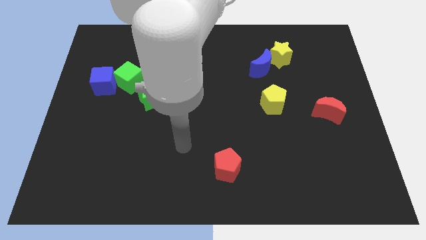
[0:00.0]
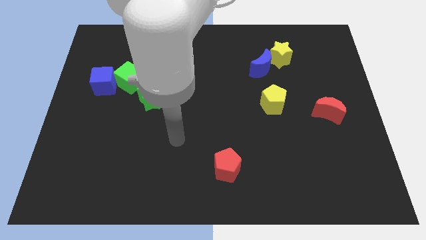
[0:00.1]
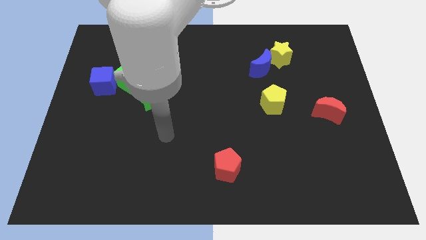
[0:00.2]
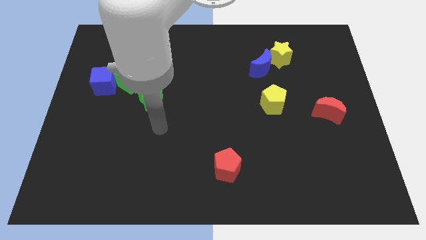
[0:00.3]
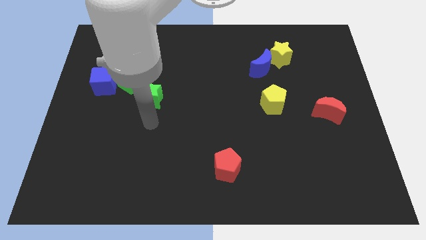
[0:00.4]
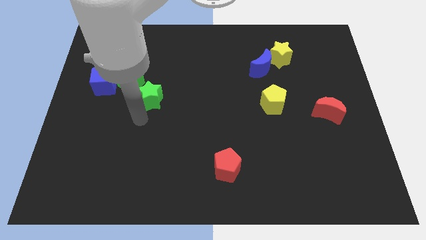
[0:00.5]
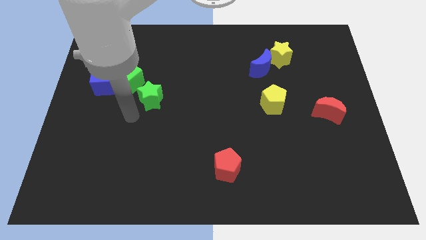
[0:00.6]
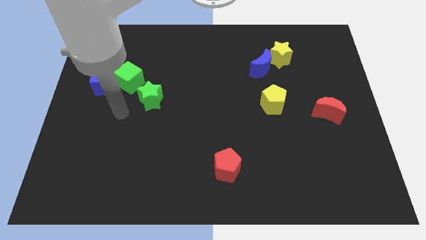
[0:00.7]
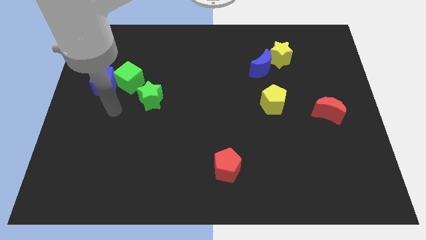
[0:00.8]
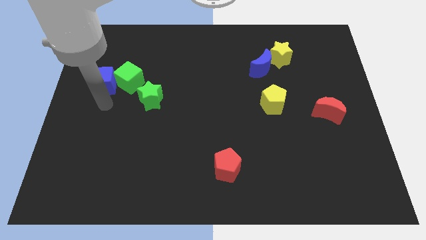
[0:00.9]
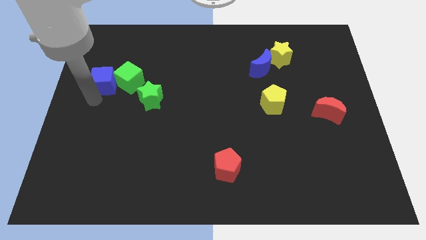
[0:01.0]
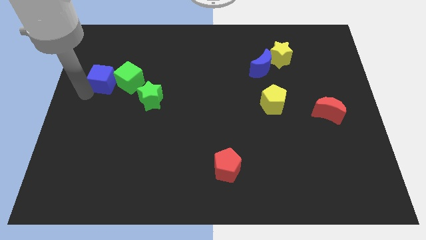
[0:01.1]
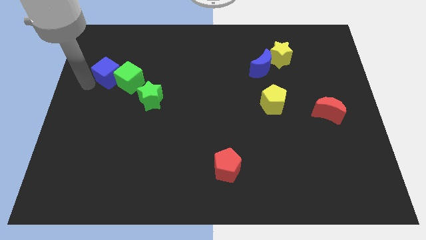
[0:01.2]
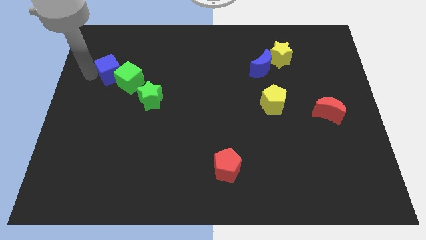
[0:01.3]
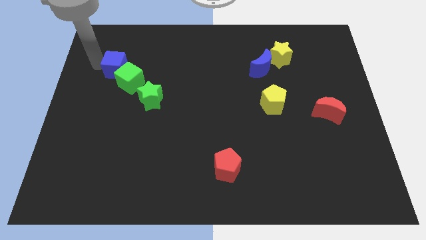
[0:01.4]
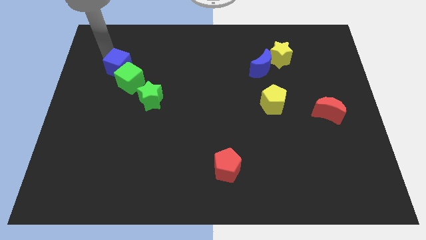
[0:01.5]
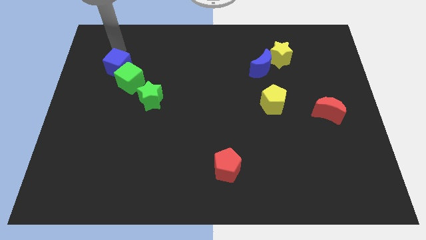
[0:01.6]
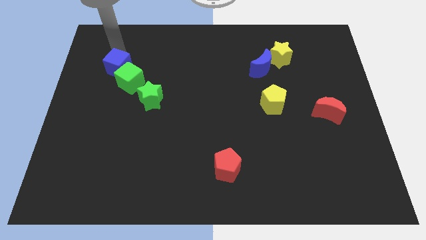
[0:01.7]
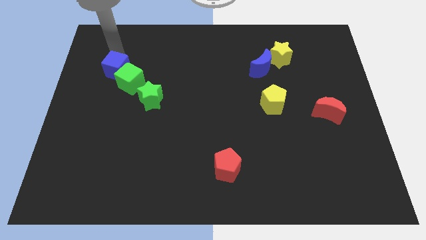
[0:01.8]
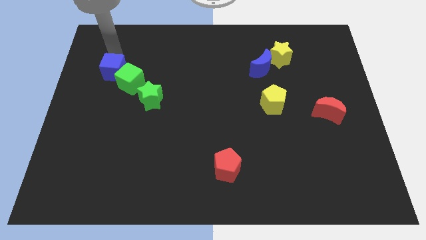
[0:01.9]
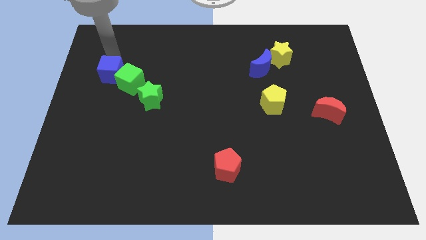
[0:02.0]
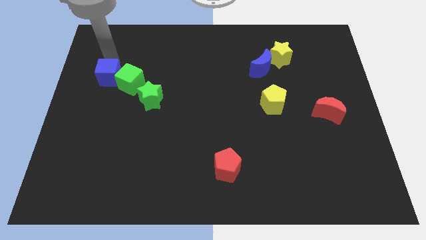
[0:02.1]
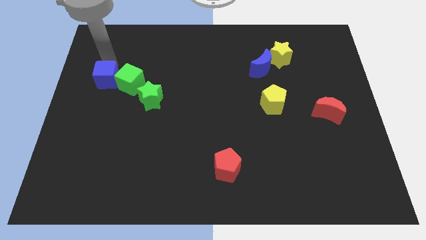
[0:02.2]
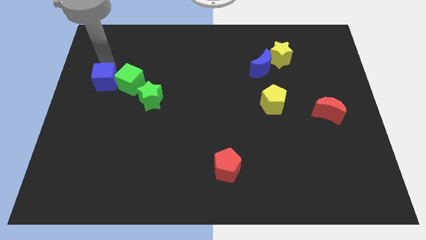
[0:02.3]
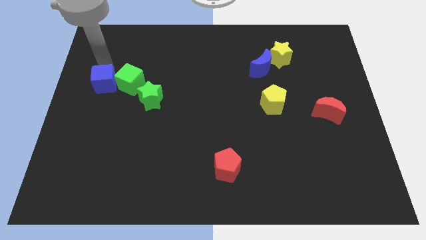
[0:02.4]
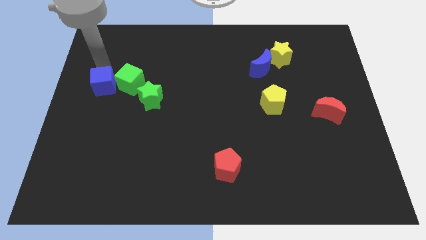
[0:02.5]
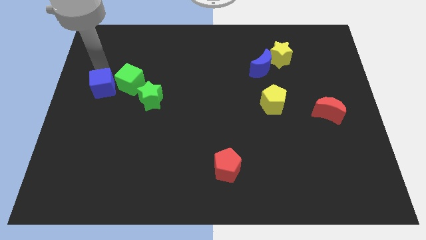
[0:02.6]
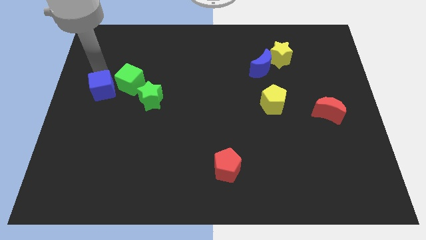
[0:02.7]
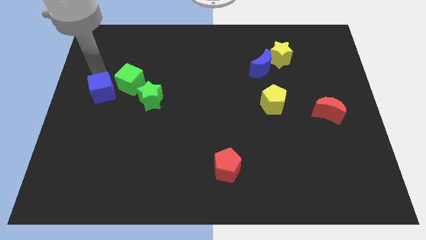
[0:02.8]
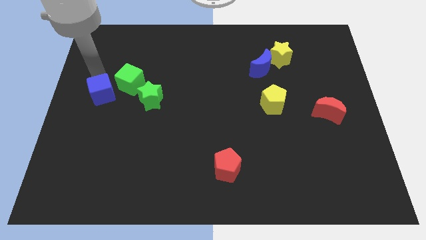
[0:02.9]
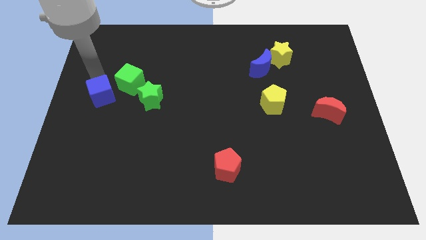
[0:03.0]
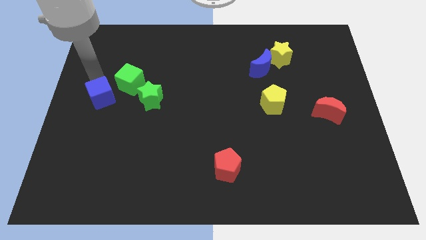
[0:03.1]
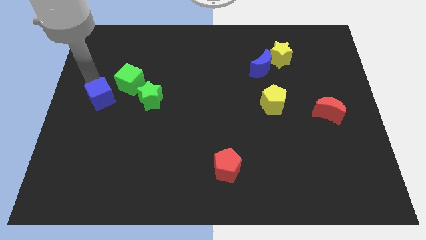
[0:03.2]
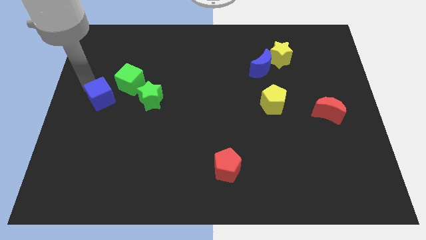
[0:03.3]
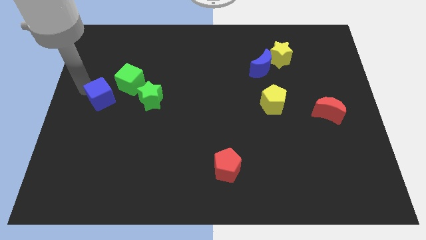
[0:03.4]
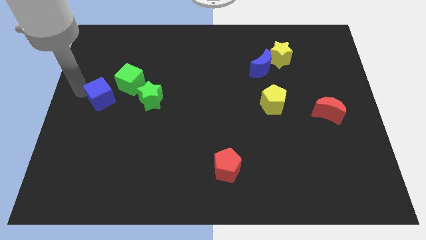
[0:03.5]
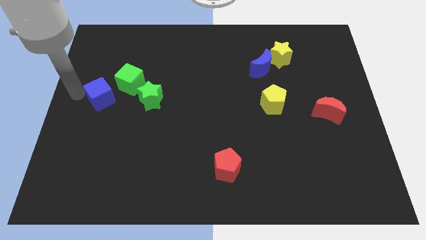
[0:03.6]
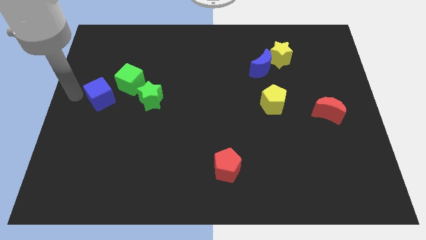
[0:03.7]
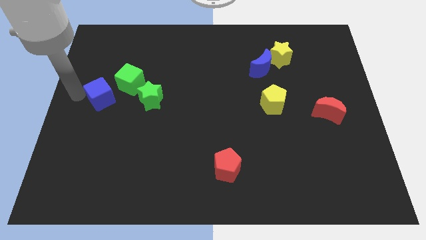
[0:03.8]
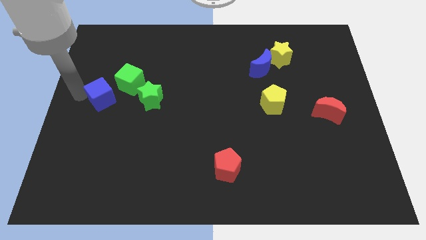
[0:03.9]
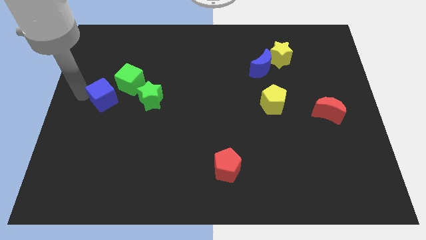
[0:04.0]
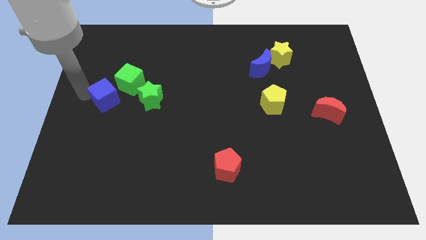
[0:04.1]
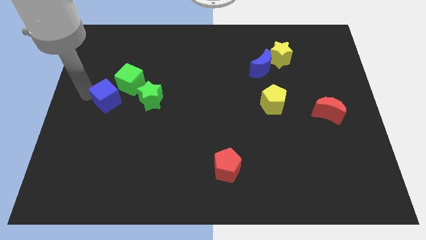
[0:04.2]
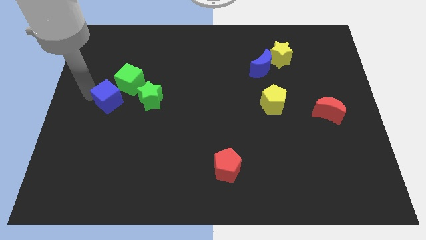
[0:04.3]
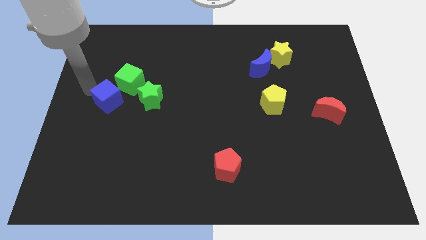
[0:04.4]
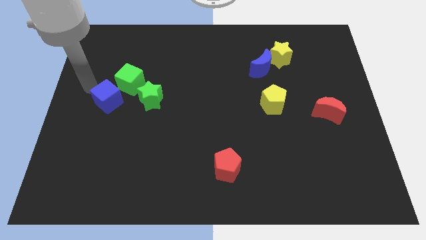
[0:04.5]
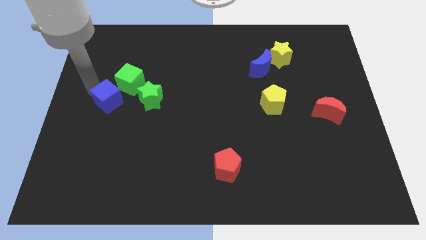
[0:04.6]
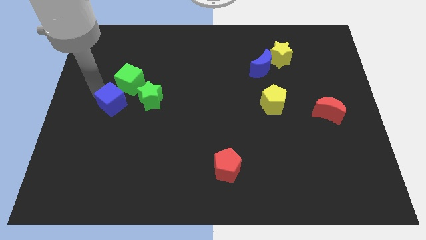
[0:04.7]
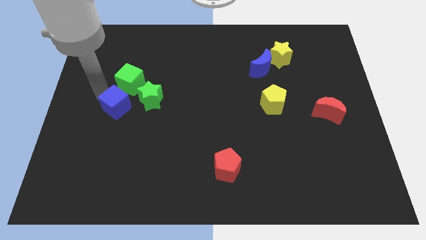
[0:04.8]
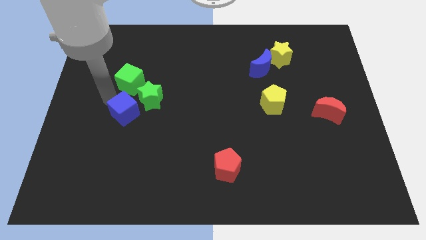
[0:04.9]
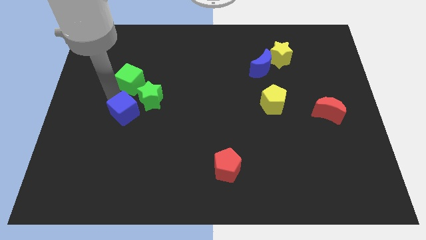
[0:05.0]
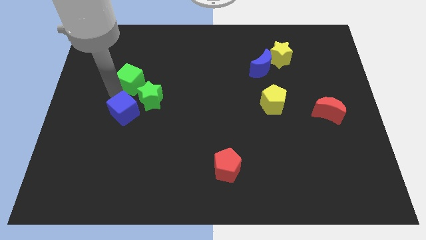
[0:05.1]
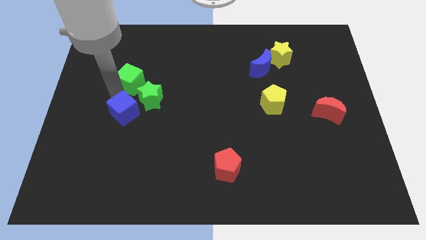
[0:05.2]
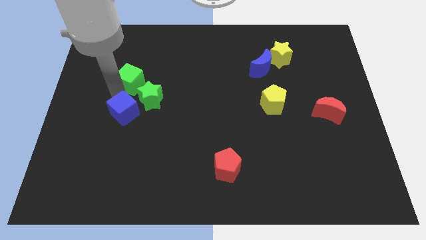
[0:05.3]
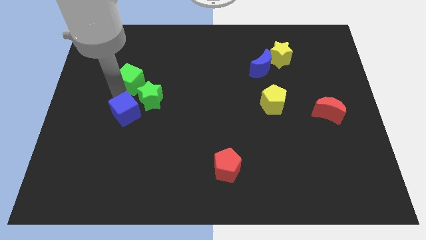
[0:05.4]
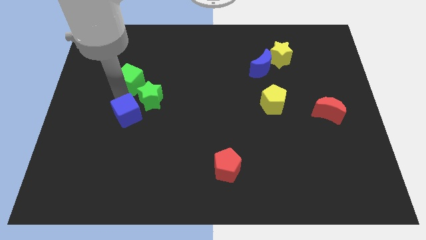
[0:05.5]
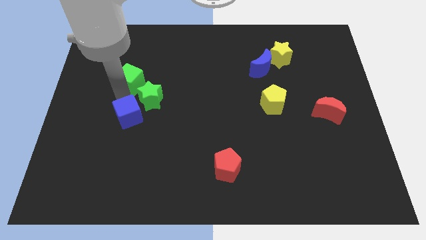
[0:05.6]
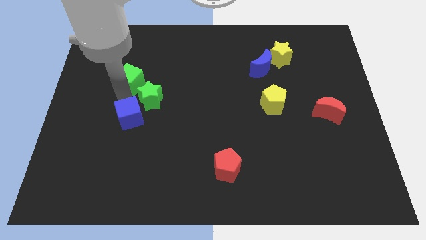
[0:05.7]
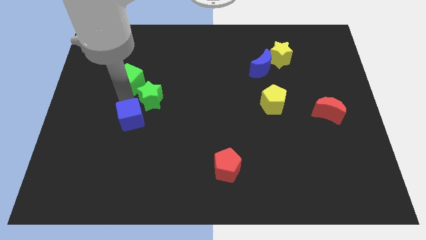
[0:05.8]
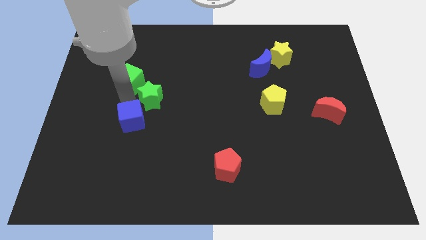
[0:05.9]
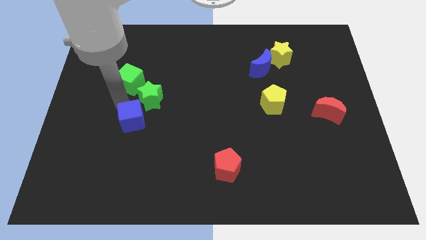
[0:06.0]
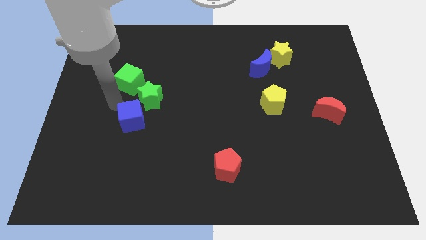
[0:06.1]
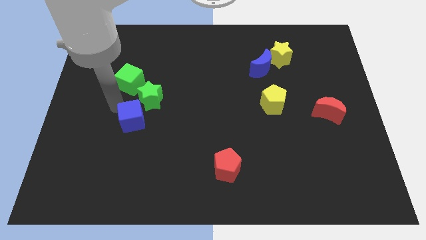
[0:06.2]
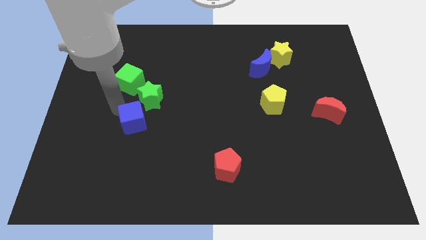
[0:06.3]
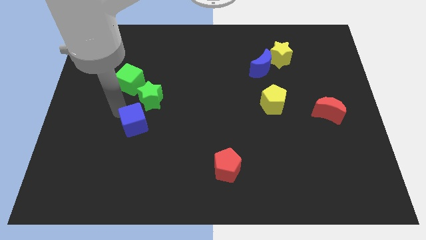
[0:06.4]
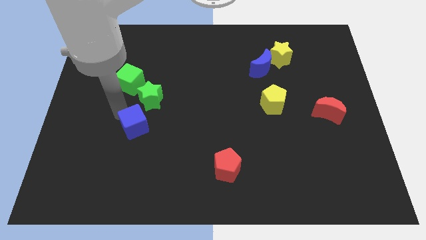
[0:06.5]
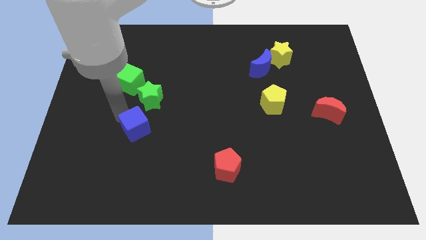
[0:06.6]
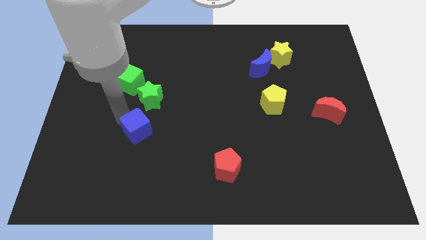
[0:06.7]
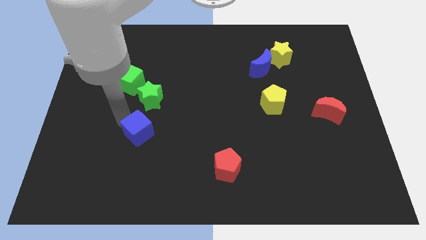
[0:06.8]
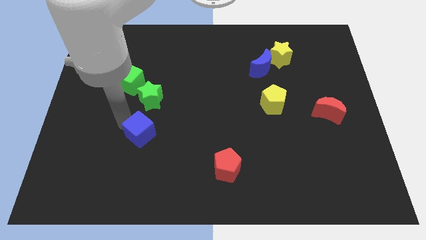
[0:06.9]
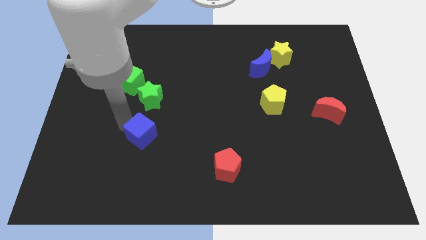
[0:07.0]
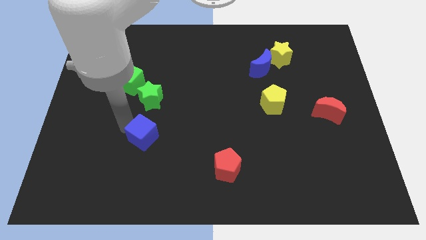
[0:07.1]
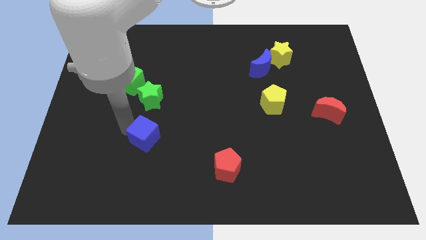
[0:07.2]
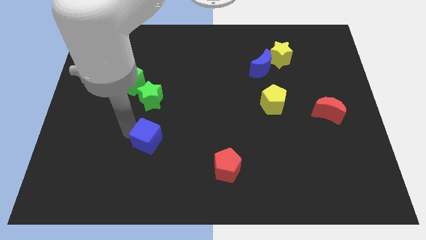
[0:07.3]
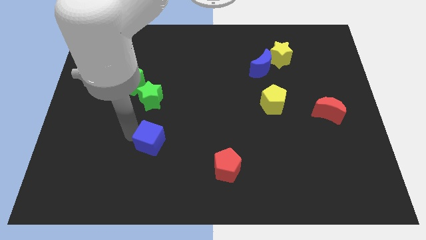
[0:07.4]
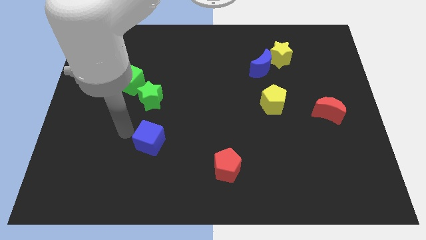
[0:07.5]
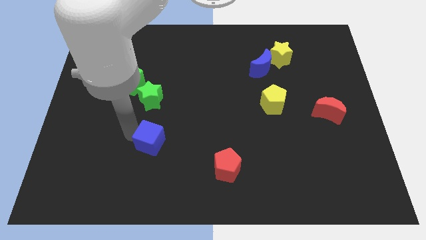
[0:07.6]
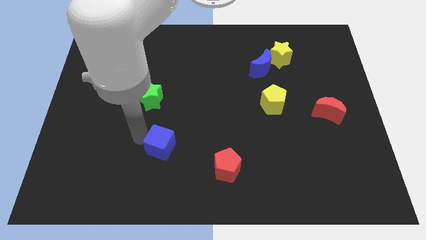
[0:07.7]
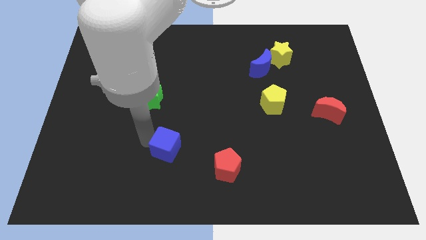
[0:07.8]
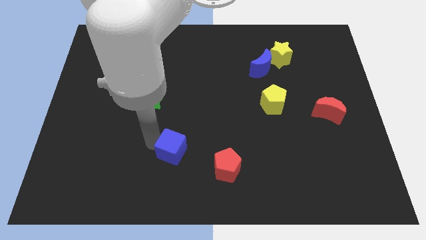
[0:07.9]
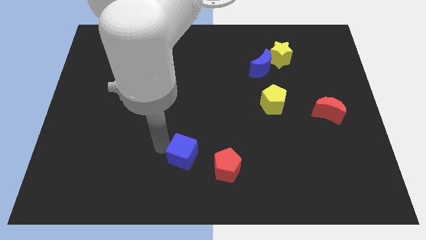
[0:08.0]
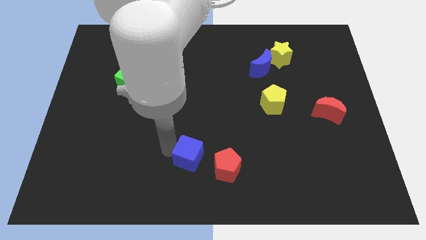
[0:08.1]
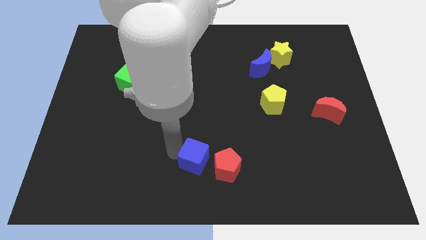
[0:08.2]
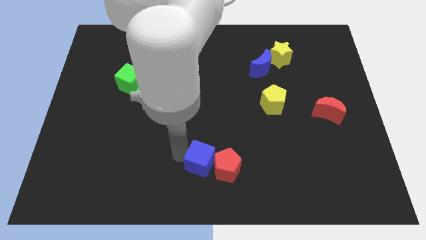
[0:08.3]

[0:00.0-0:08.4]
put the blue cube close to the red pentagon
